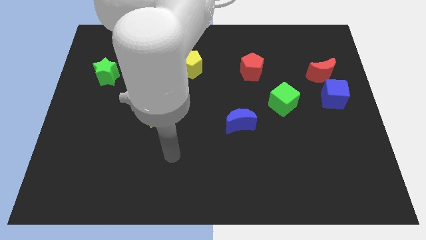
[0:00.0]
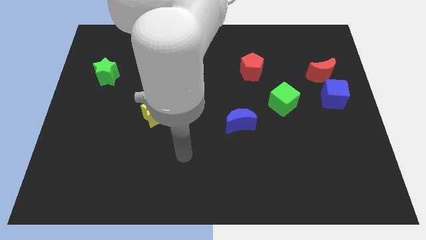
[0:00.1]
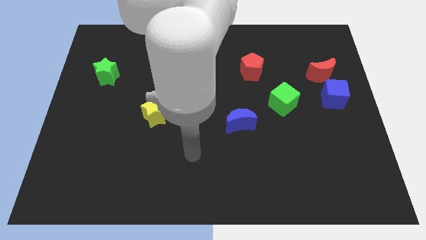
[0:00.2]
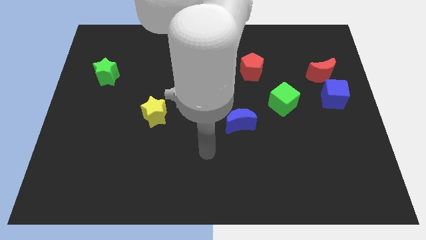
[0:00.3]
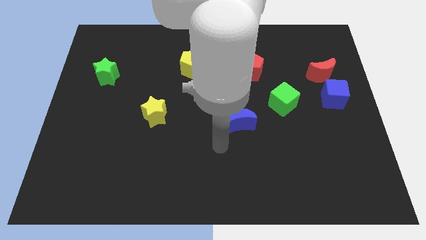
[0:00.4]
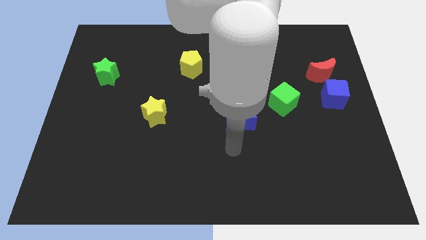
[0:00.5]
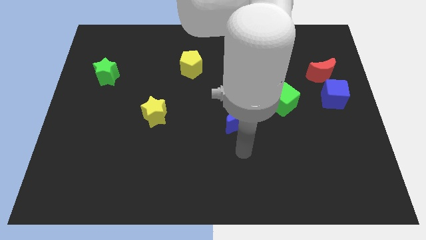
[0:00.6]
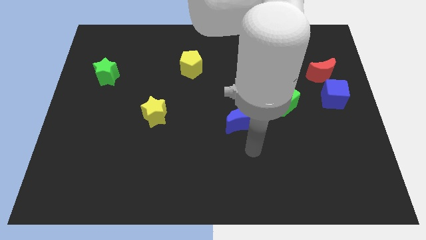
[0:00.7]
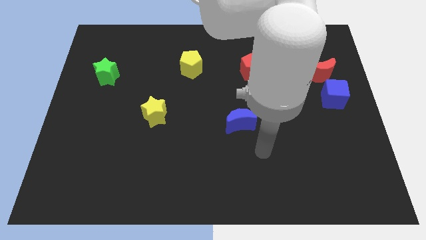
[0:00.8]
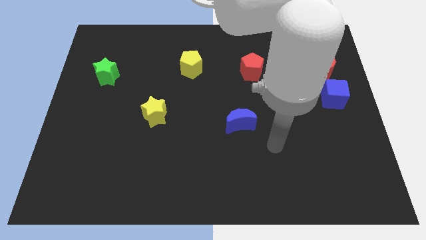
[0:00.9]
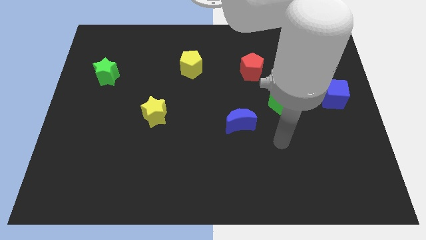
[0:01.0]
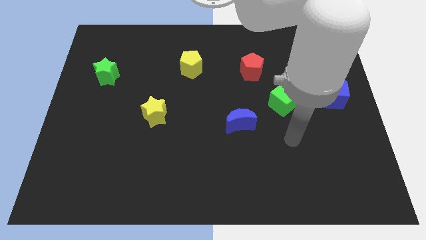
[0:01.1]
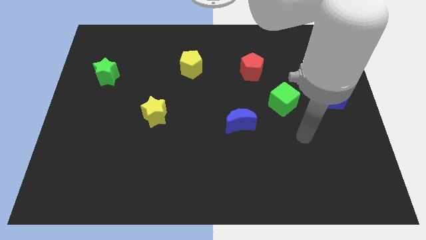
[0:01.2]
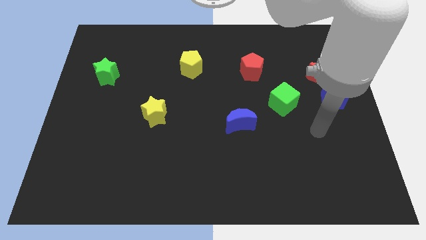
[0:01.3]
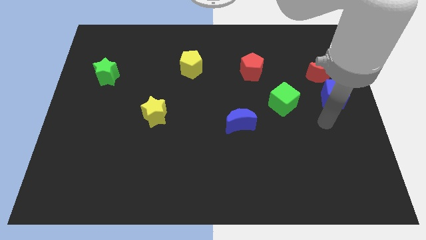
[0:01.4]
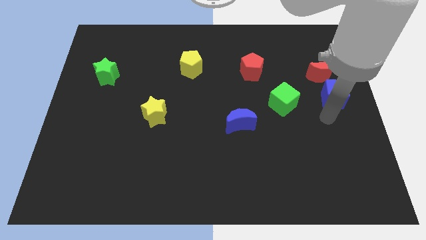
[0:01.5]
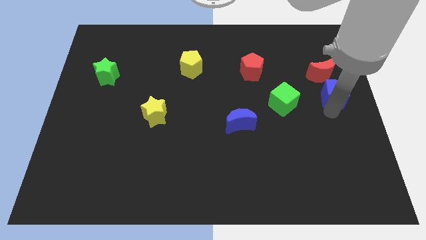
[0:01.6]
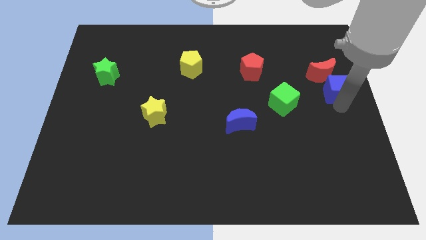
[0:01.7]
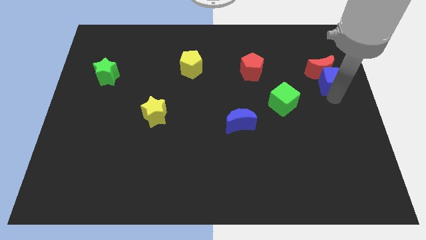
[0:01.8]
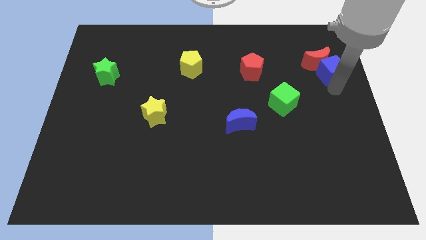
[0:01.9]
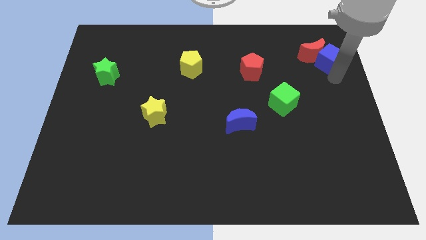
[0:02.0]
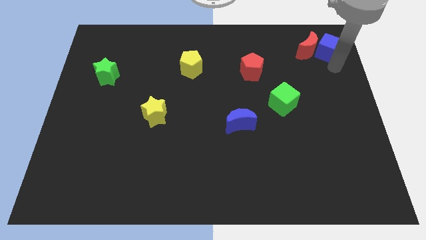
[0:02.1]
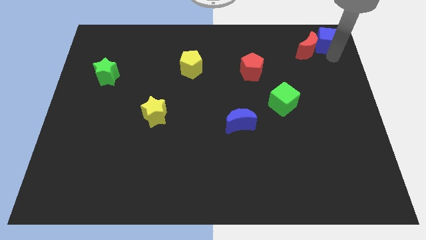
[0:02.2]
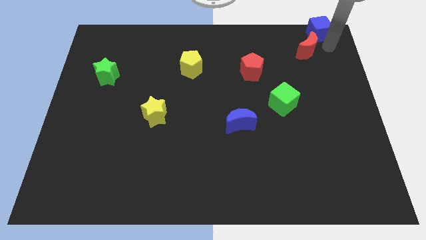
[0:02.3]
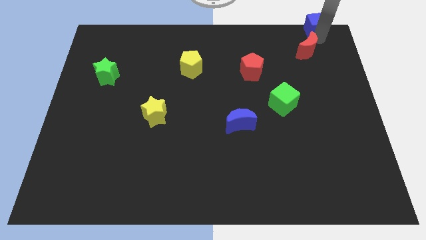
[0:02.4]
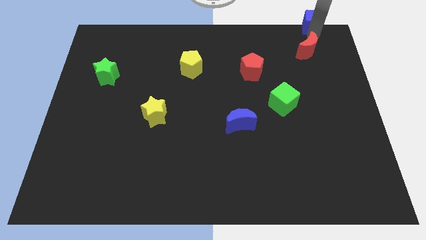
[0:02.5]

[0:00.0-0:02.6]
move the red moon away from the blue cube

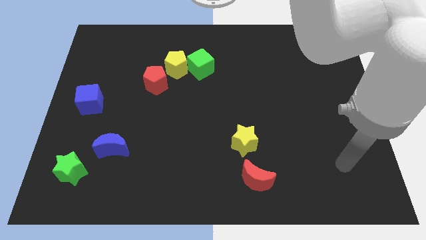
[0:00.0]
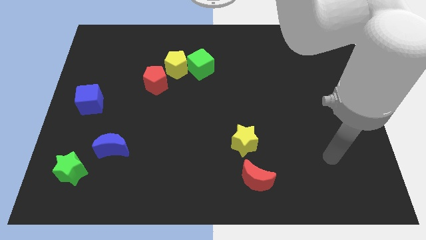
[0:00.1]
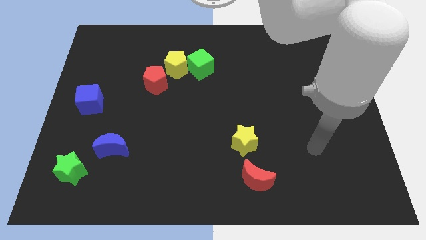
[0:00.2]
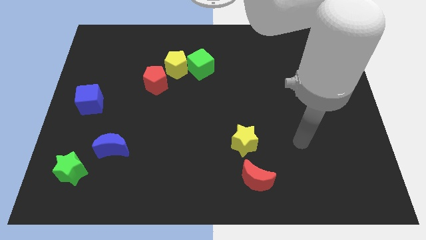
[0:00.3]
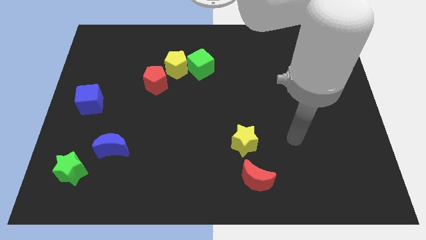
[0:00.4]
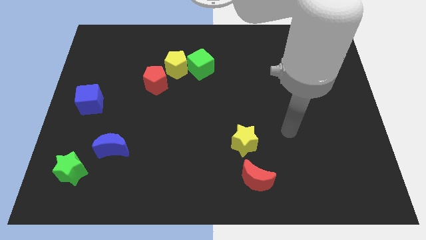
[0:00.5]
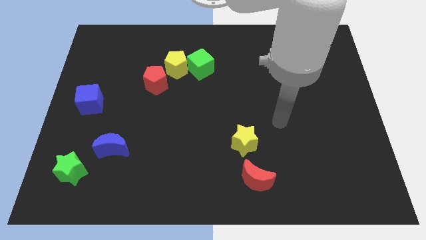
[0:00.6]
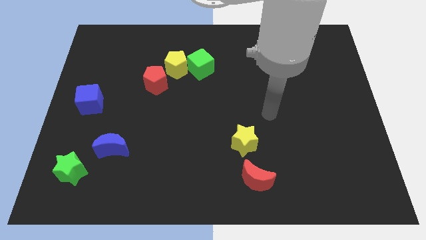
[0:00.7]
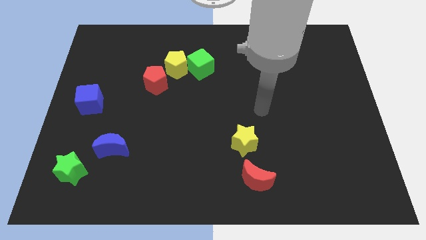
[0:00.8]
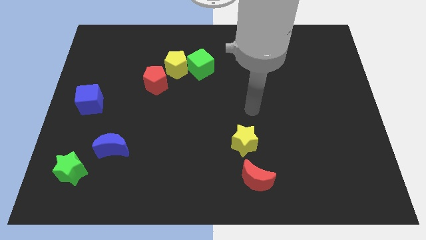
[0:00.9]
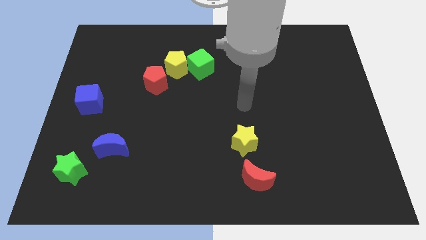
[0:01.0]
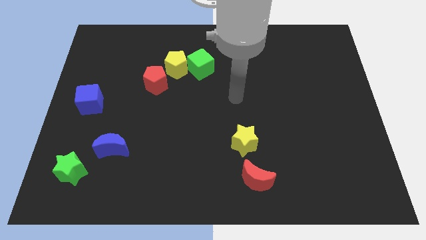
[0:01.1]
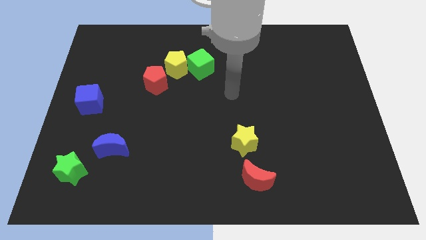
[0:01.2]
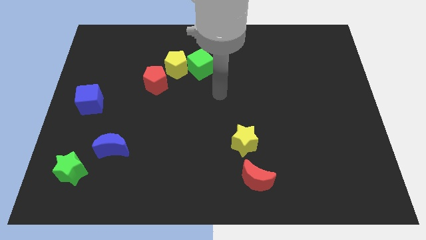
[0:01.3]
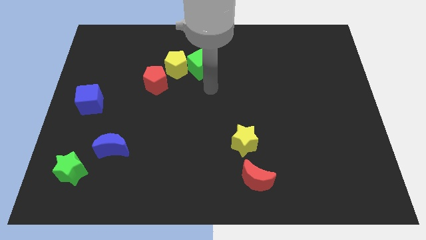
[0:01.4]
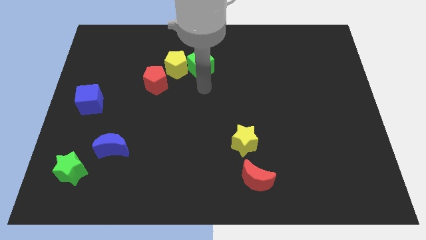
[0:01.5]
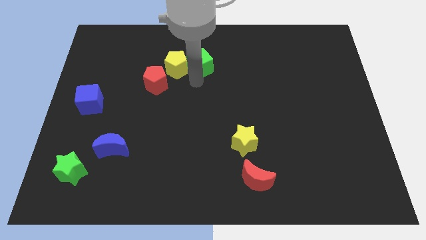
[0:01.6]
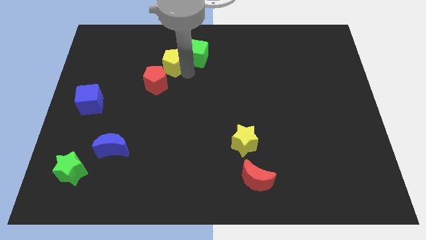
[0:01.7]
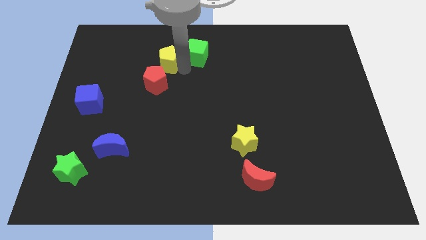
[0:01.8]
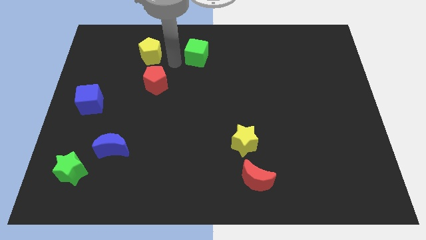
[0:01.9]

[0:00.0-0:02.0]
separate the green cube from the yellow pentagon

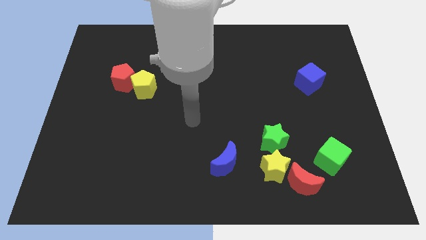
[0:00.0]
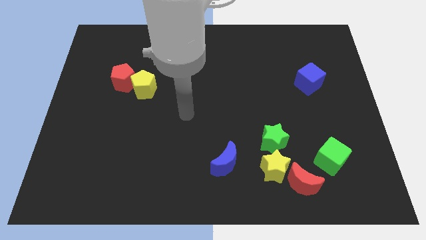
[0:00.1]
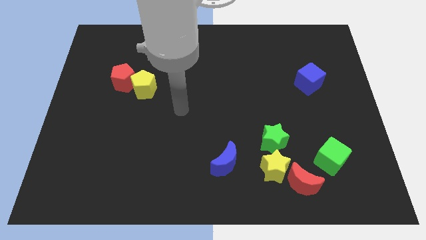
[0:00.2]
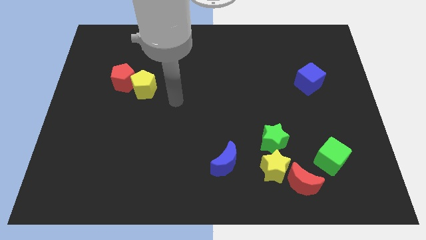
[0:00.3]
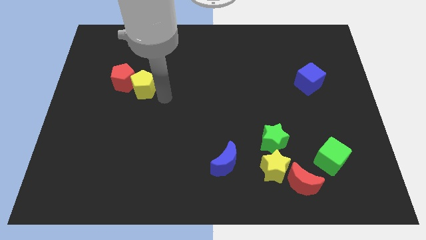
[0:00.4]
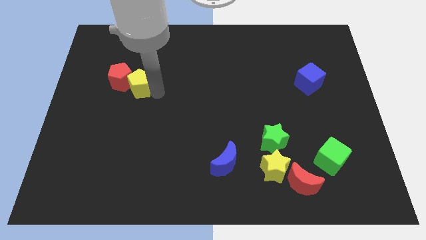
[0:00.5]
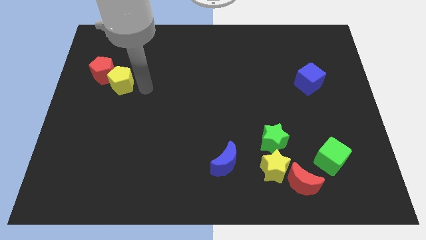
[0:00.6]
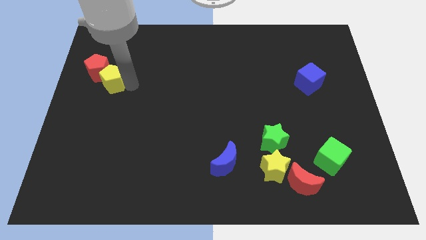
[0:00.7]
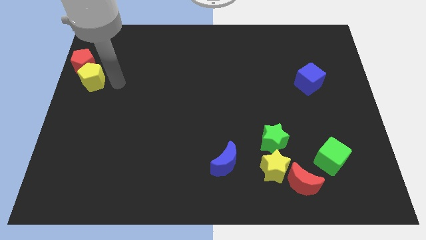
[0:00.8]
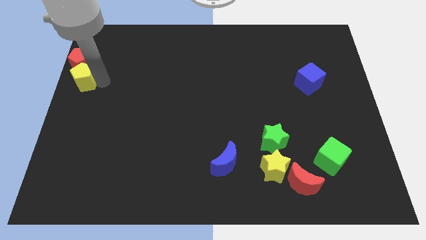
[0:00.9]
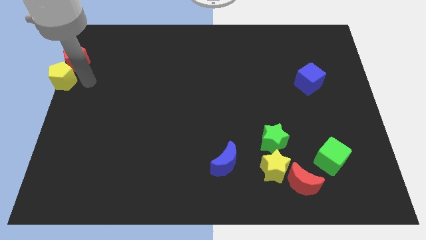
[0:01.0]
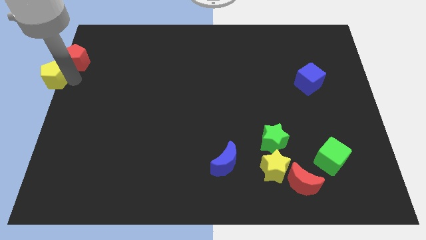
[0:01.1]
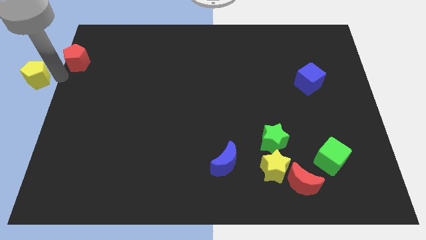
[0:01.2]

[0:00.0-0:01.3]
pull the red pentagon apart from the yellow pentagon

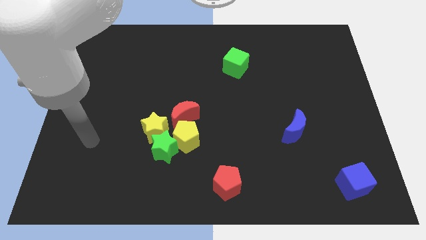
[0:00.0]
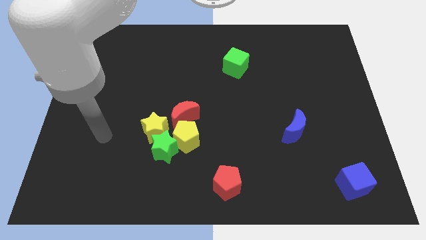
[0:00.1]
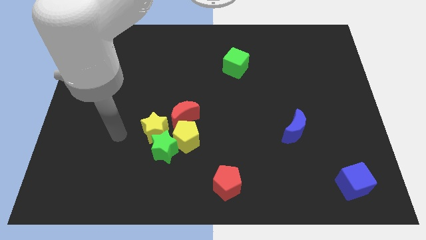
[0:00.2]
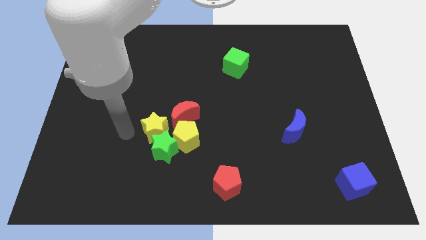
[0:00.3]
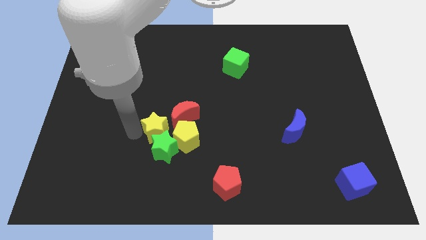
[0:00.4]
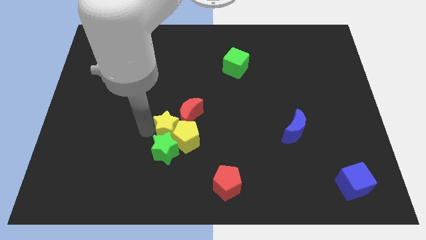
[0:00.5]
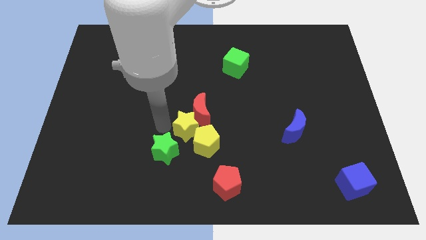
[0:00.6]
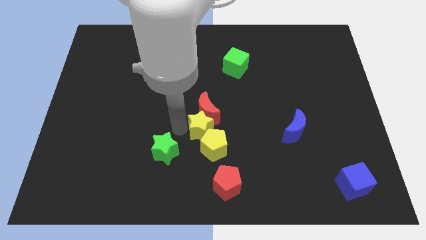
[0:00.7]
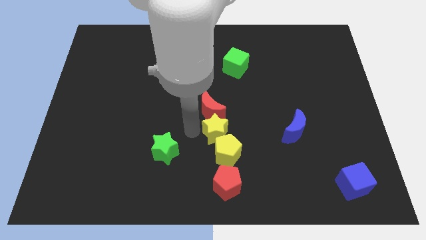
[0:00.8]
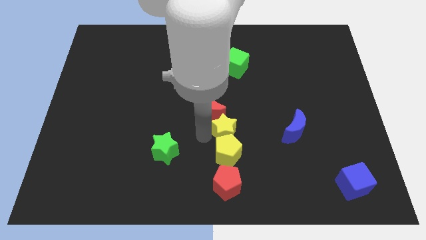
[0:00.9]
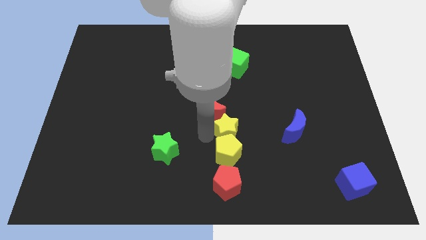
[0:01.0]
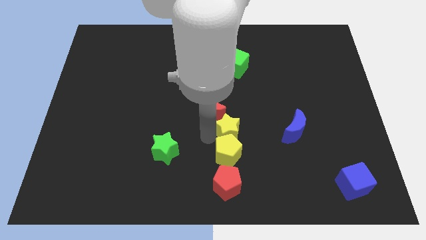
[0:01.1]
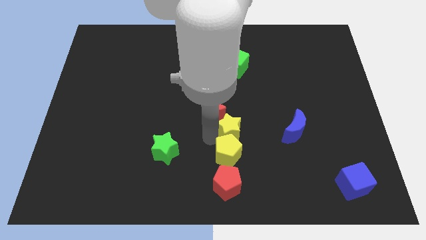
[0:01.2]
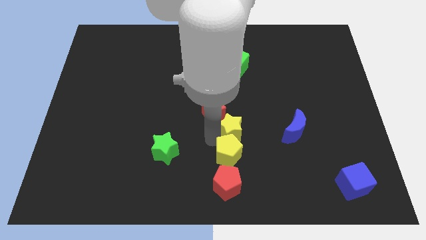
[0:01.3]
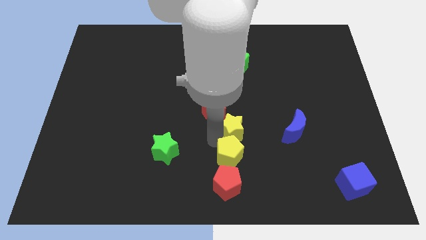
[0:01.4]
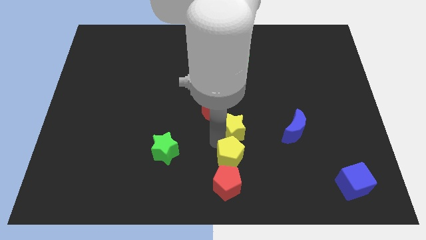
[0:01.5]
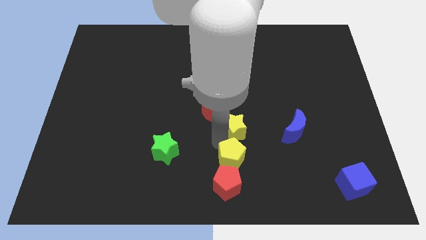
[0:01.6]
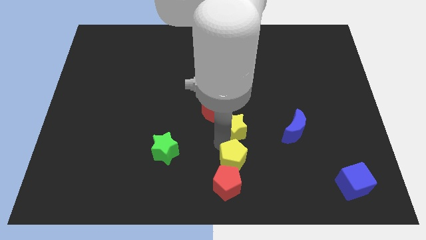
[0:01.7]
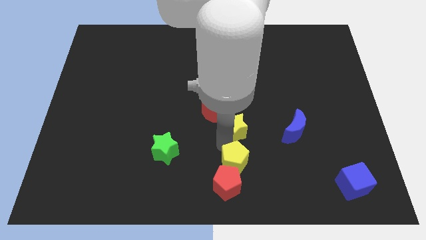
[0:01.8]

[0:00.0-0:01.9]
separate the yellow pentagon from the group of blocks

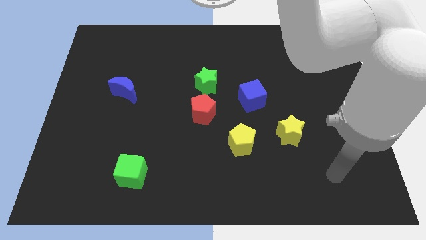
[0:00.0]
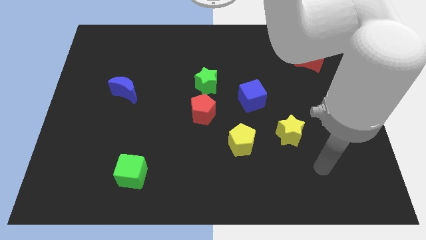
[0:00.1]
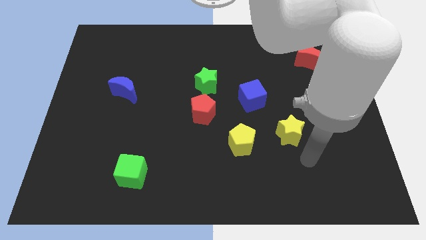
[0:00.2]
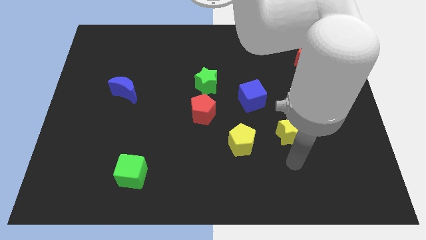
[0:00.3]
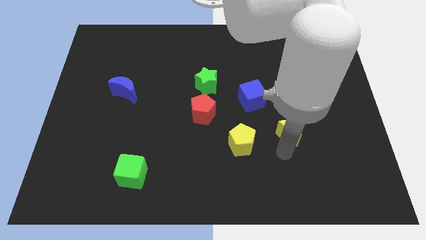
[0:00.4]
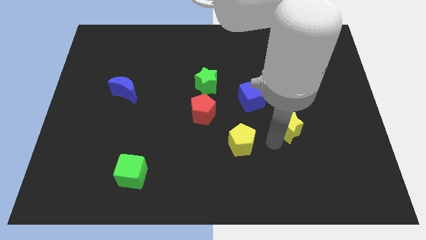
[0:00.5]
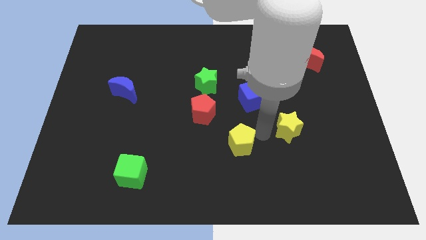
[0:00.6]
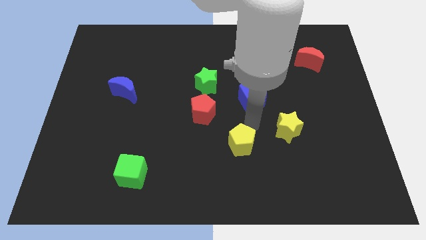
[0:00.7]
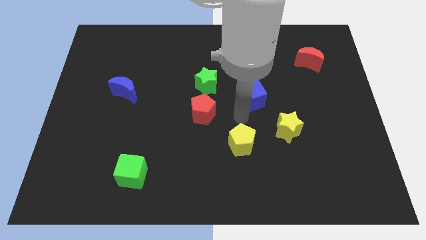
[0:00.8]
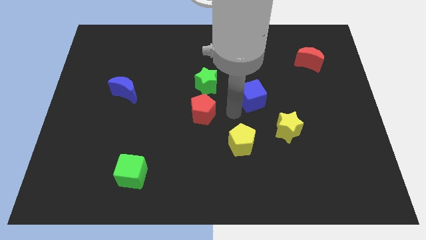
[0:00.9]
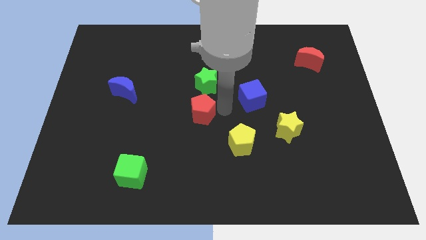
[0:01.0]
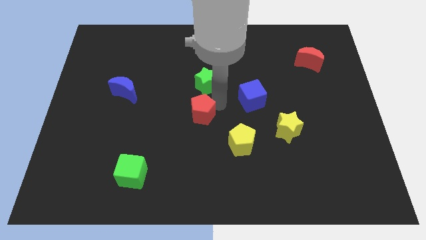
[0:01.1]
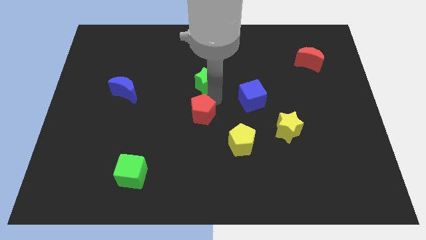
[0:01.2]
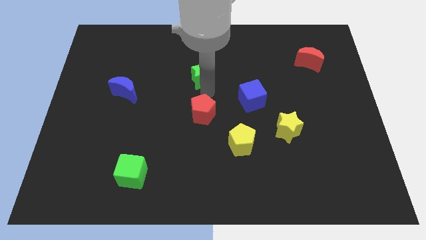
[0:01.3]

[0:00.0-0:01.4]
separate the red pentagon from the green star

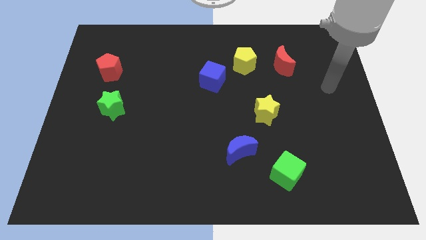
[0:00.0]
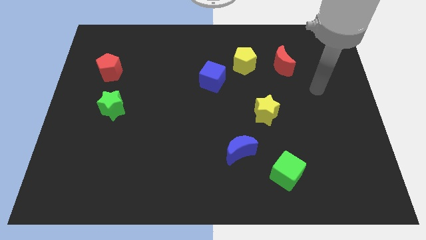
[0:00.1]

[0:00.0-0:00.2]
separate the red moon from the yellow pentagon
